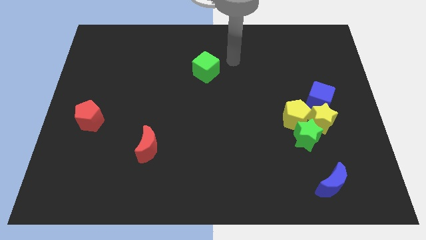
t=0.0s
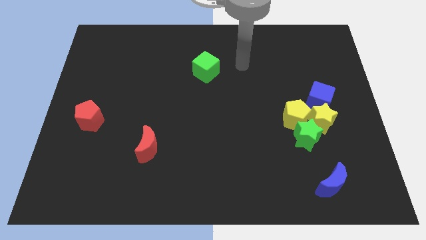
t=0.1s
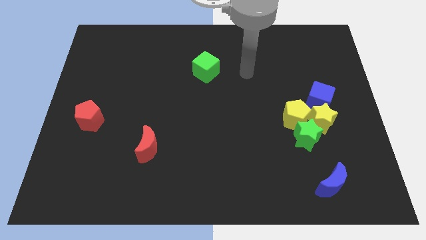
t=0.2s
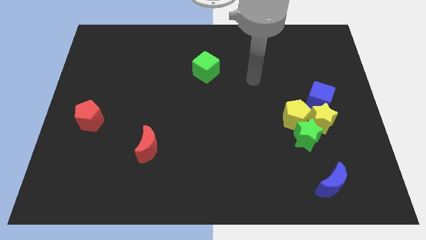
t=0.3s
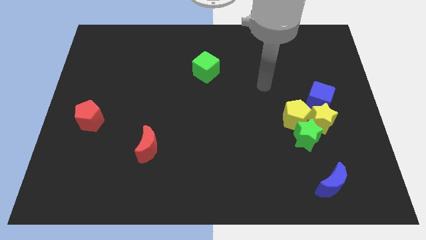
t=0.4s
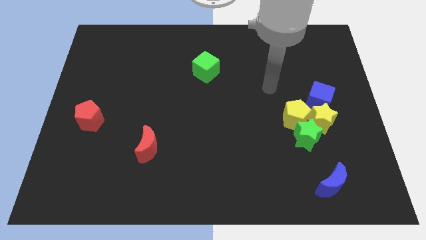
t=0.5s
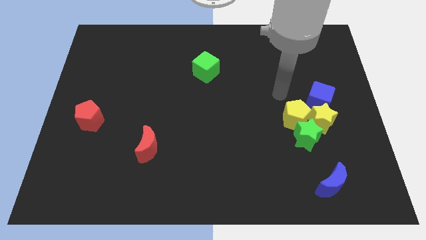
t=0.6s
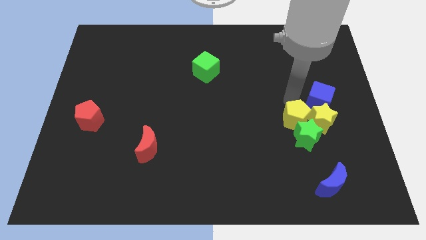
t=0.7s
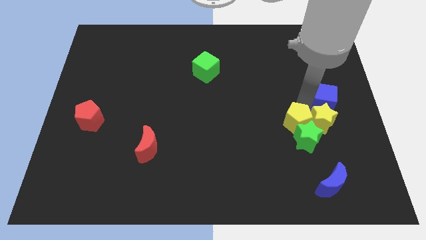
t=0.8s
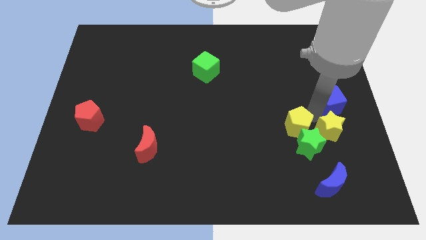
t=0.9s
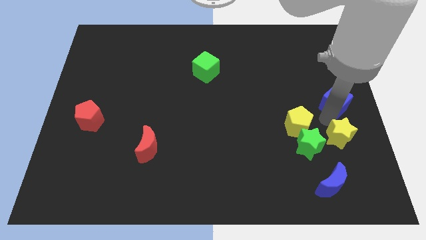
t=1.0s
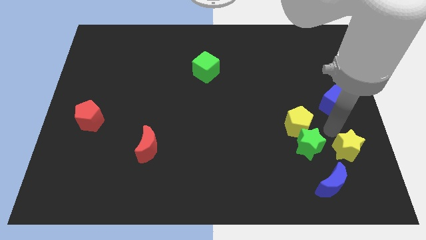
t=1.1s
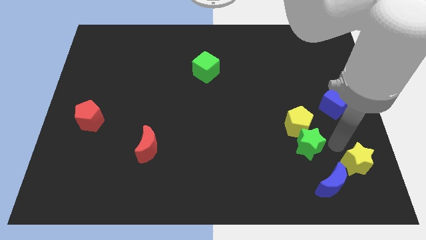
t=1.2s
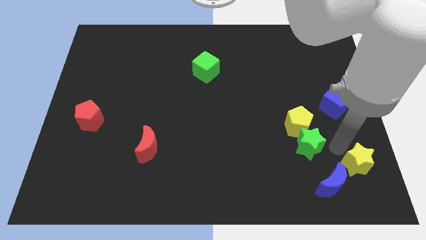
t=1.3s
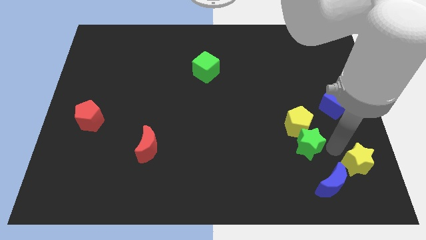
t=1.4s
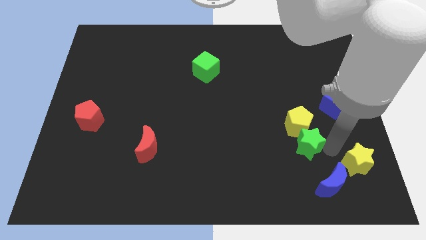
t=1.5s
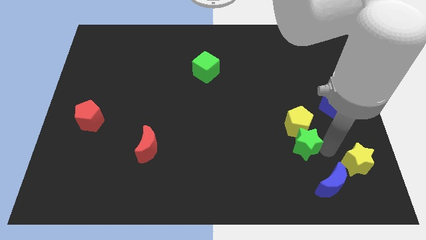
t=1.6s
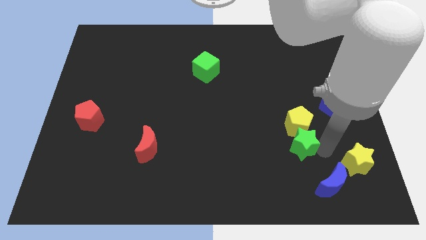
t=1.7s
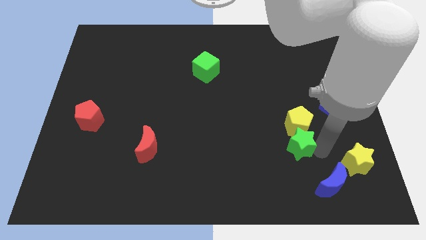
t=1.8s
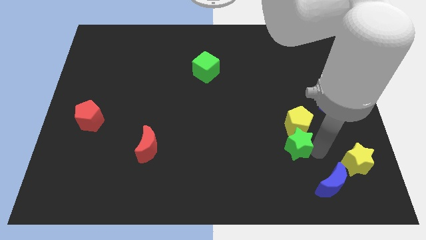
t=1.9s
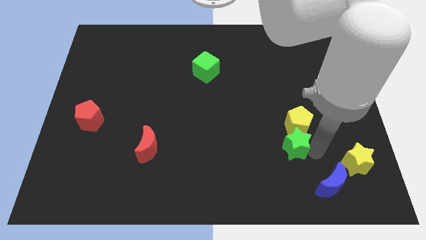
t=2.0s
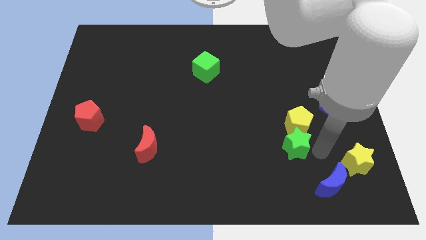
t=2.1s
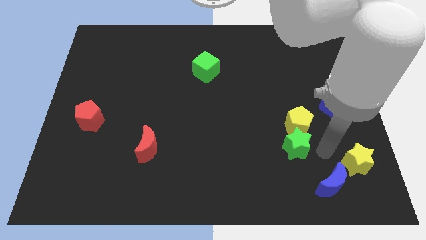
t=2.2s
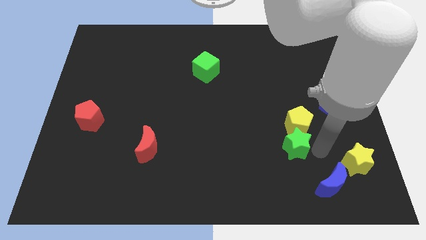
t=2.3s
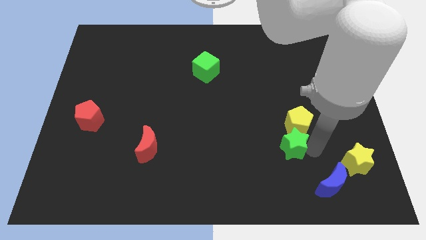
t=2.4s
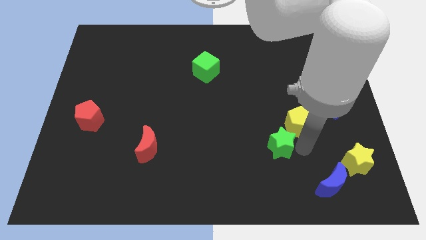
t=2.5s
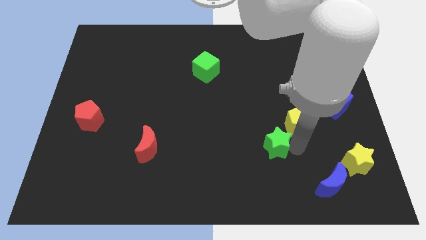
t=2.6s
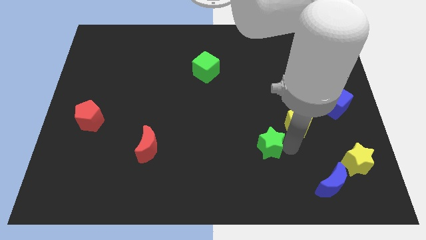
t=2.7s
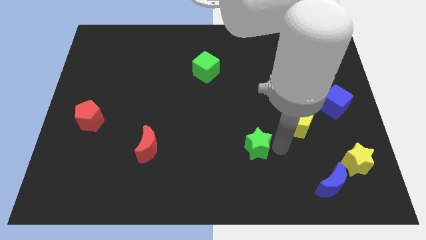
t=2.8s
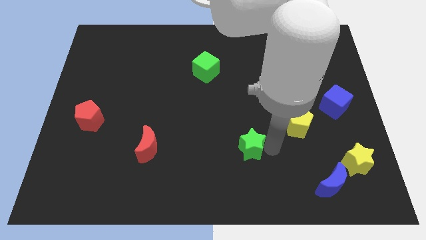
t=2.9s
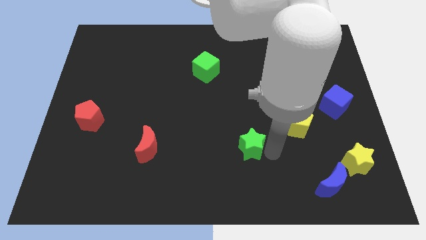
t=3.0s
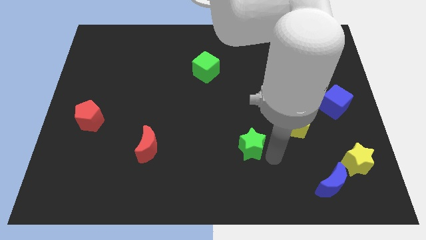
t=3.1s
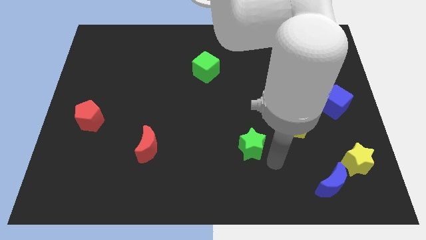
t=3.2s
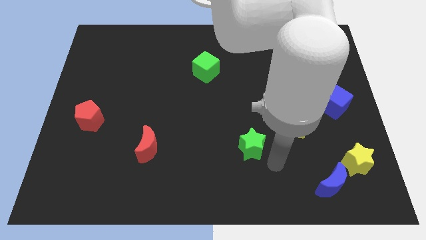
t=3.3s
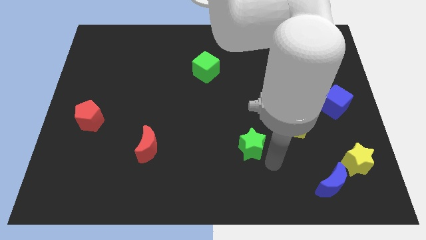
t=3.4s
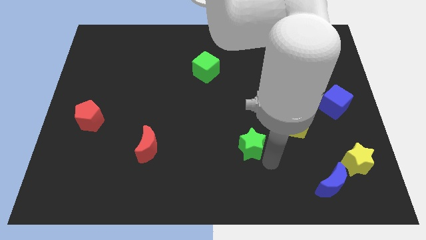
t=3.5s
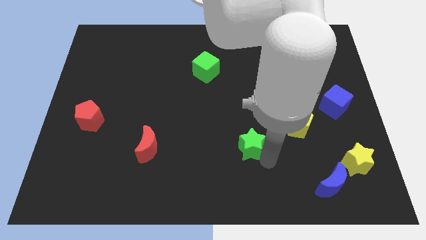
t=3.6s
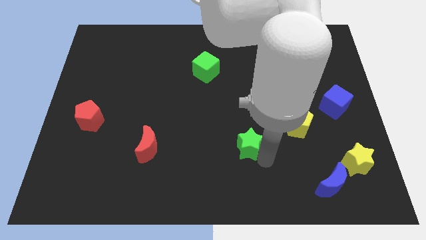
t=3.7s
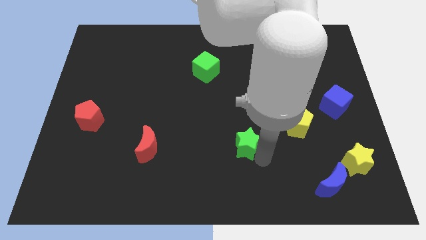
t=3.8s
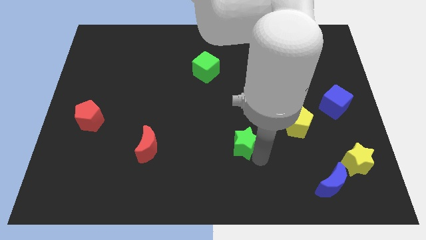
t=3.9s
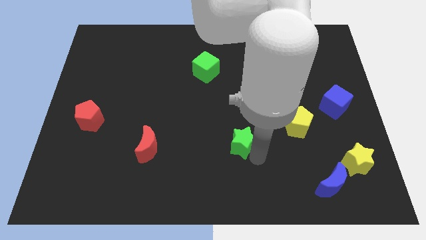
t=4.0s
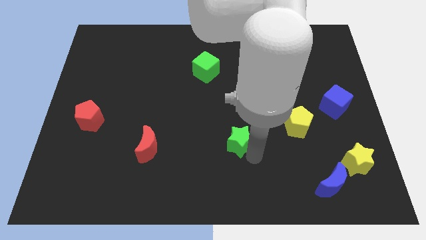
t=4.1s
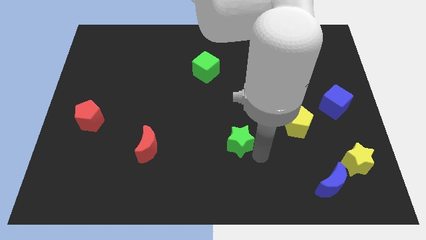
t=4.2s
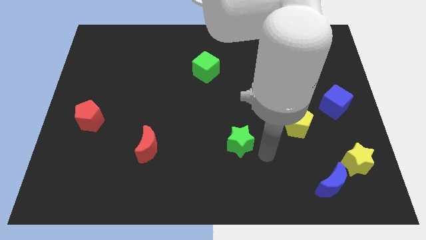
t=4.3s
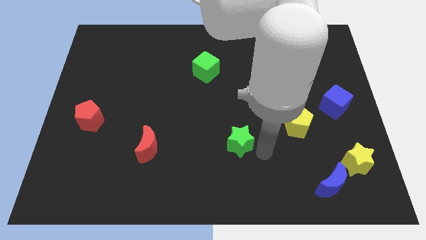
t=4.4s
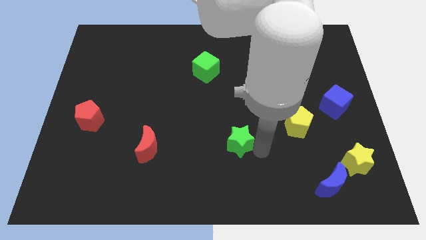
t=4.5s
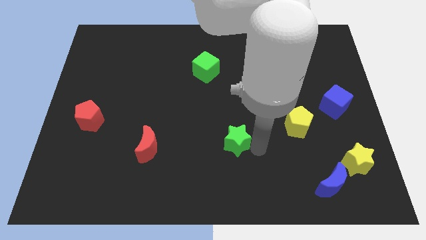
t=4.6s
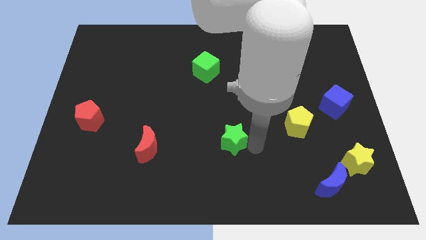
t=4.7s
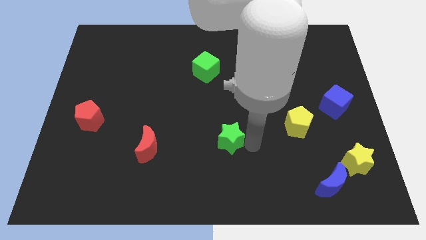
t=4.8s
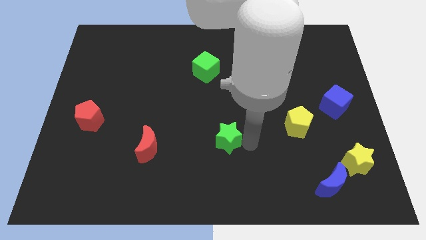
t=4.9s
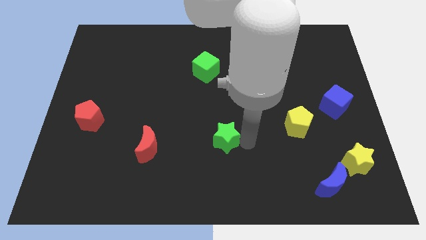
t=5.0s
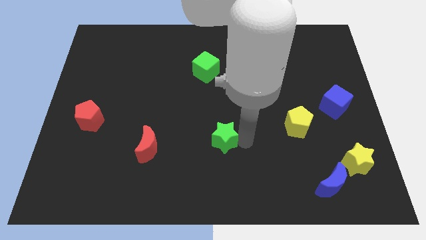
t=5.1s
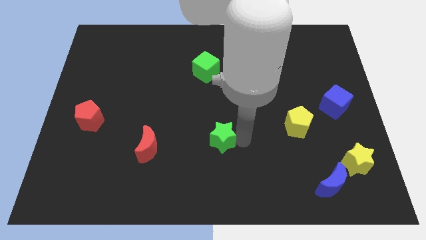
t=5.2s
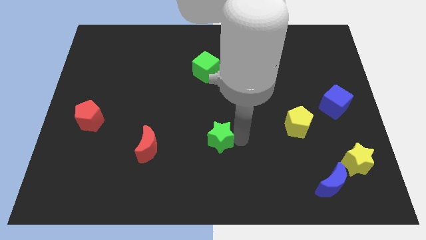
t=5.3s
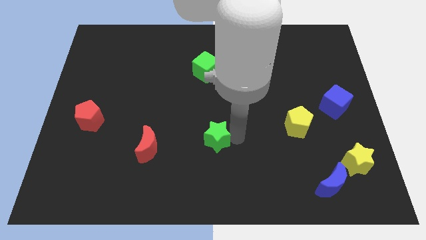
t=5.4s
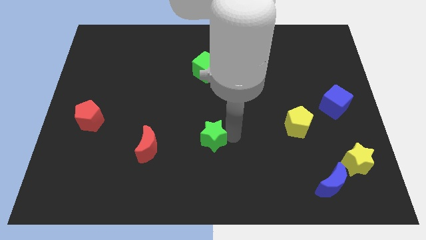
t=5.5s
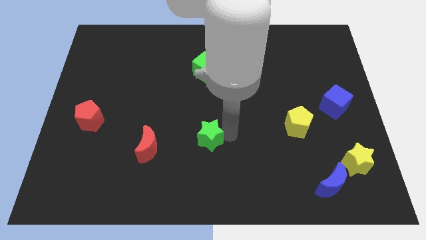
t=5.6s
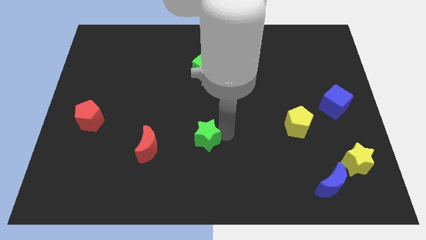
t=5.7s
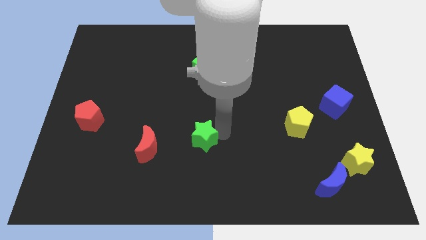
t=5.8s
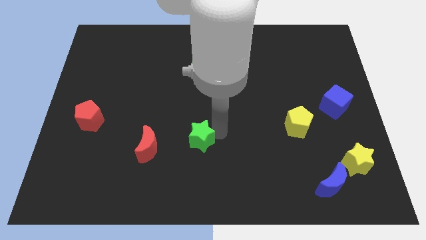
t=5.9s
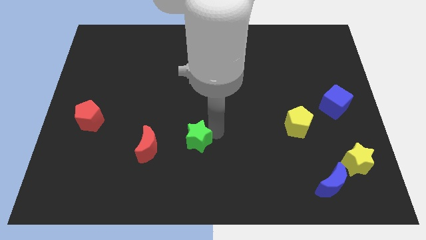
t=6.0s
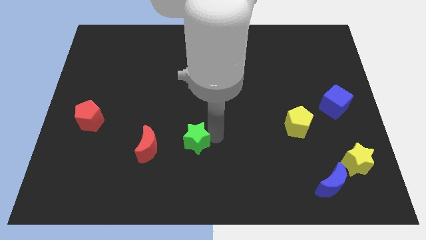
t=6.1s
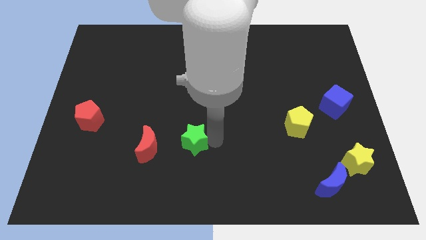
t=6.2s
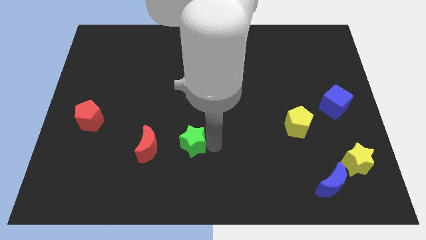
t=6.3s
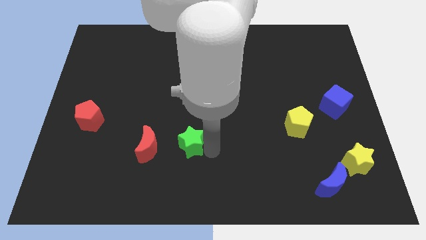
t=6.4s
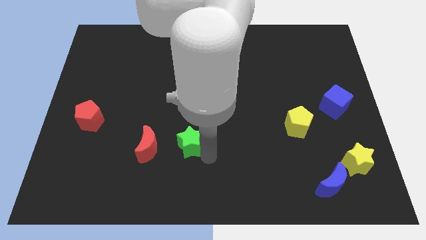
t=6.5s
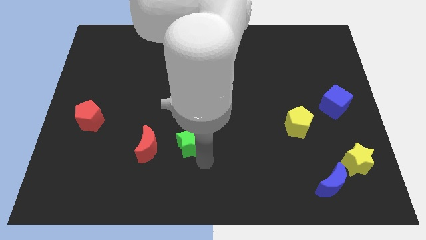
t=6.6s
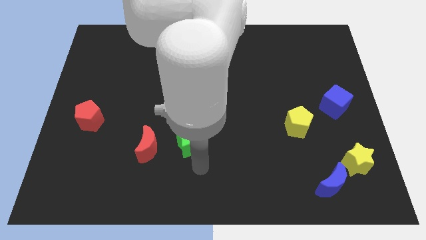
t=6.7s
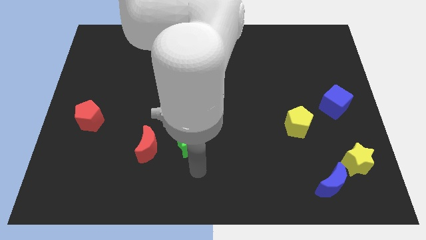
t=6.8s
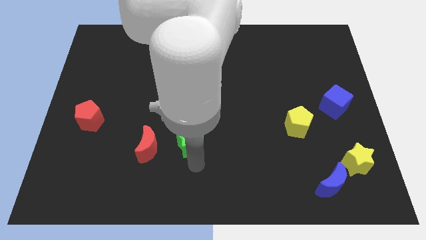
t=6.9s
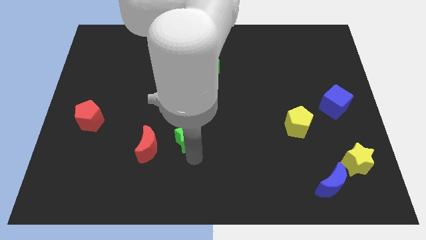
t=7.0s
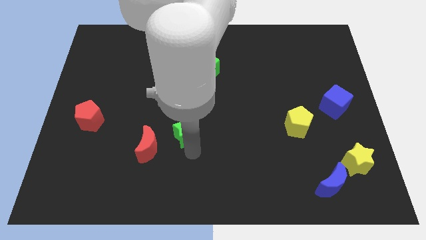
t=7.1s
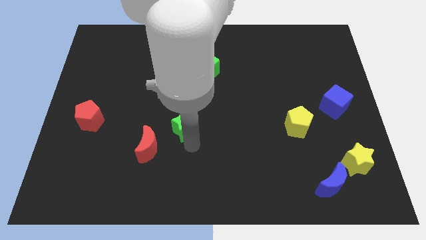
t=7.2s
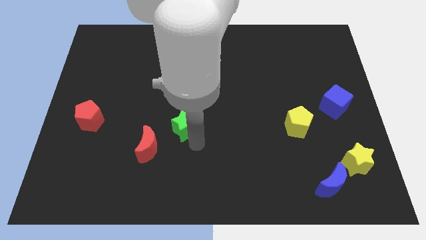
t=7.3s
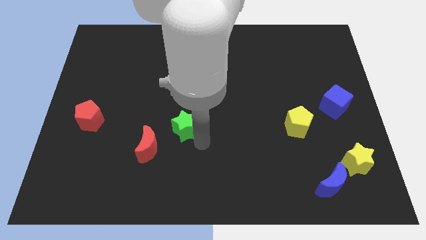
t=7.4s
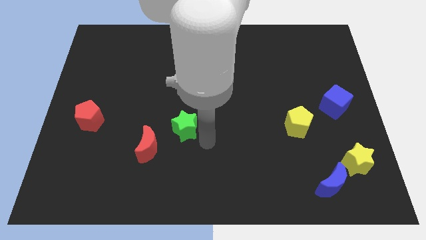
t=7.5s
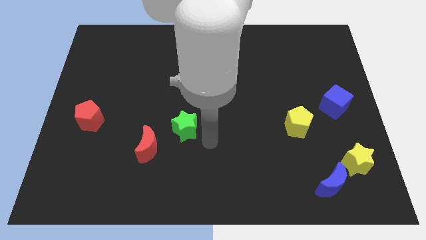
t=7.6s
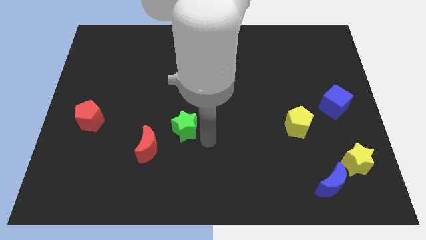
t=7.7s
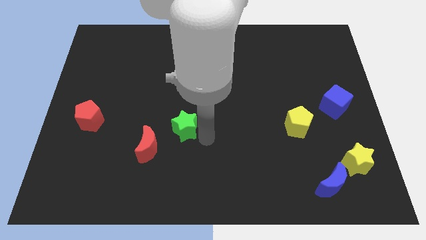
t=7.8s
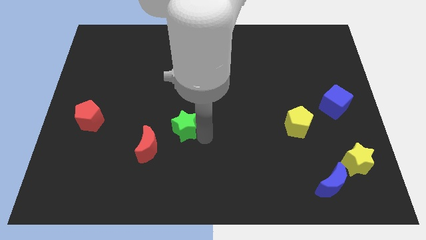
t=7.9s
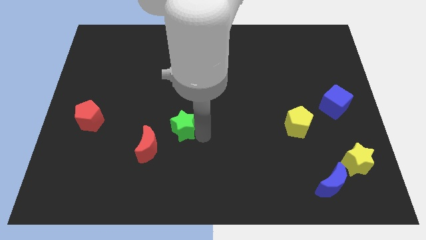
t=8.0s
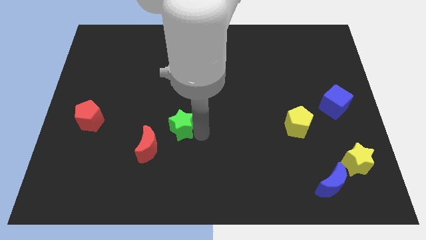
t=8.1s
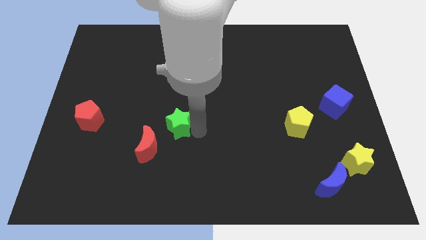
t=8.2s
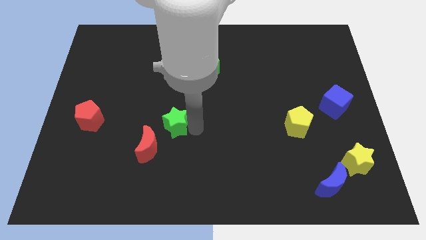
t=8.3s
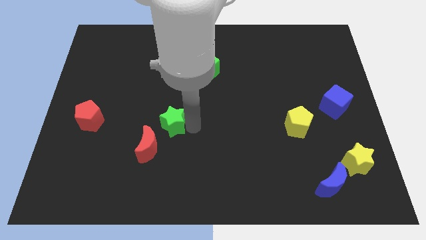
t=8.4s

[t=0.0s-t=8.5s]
push the green star to the top of the red moon
